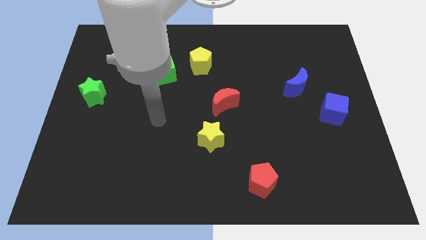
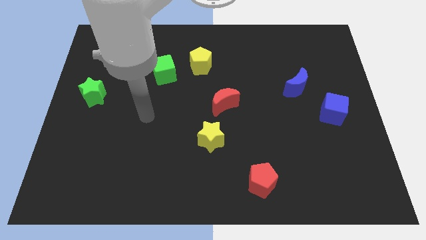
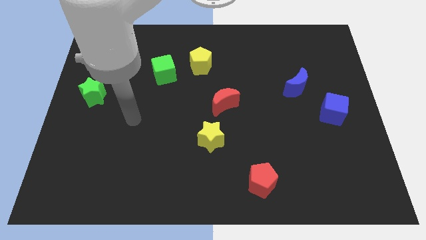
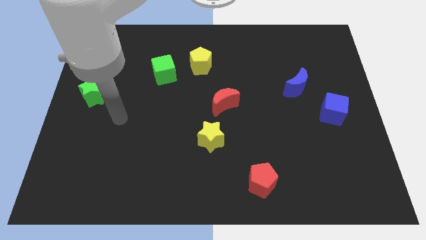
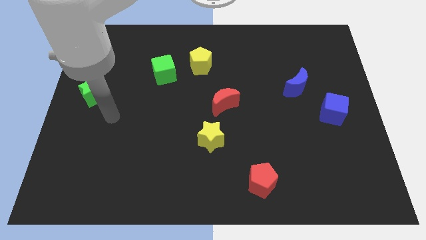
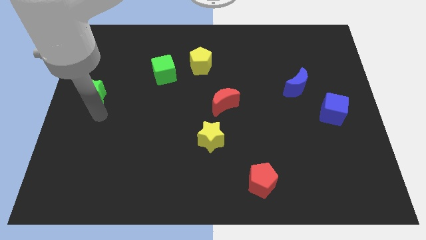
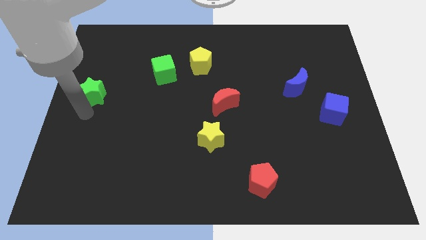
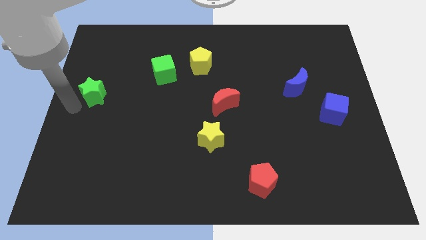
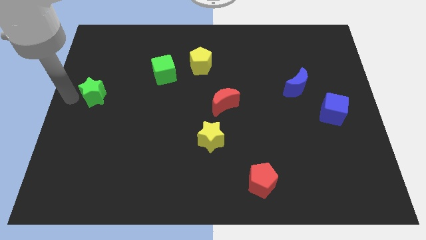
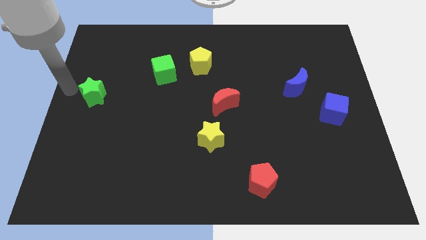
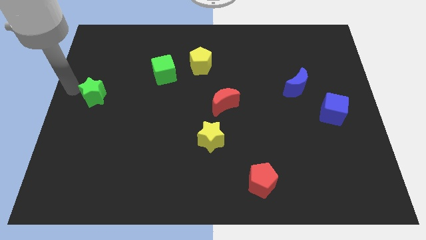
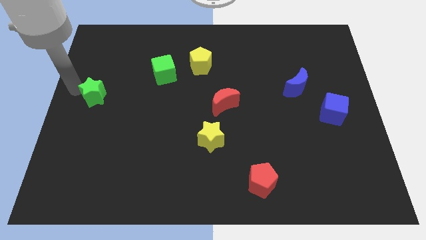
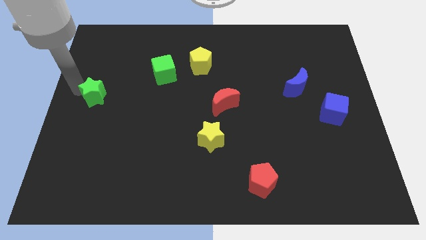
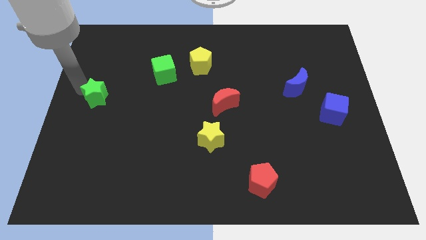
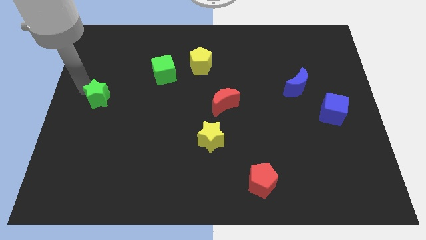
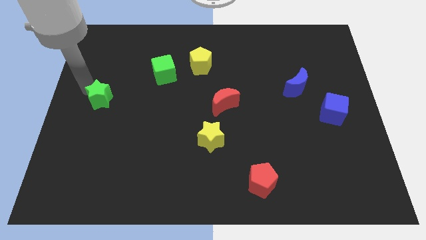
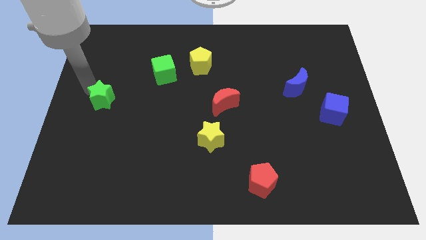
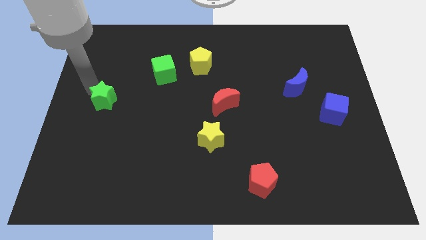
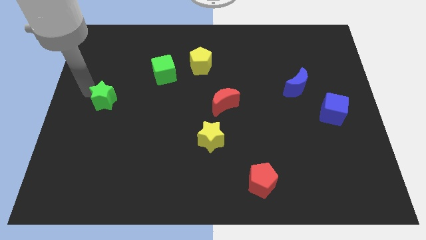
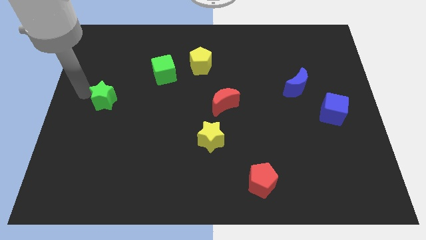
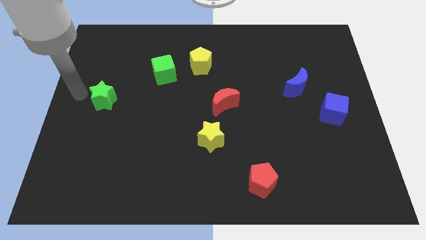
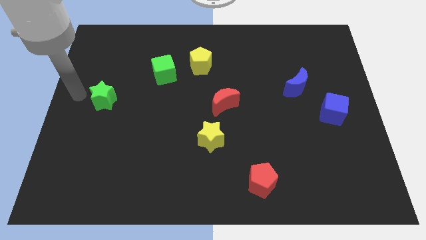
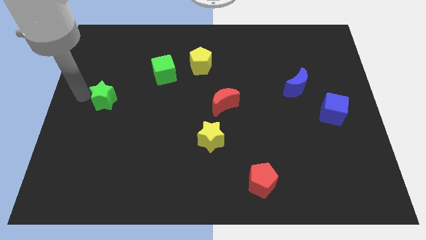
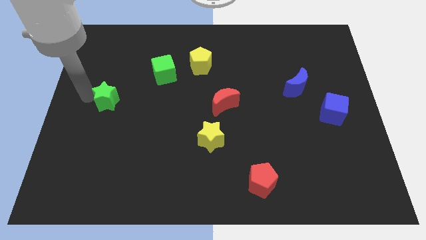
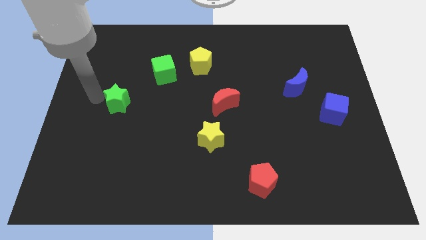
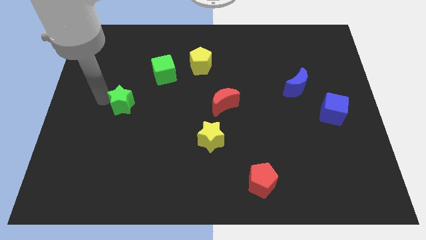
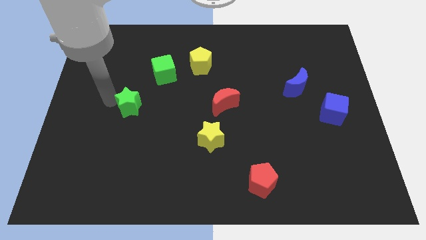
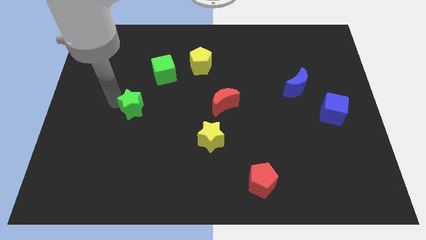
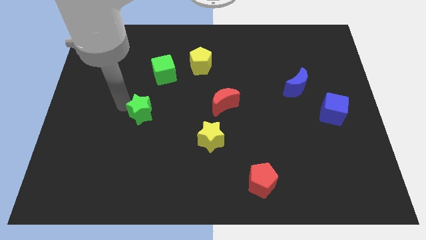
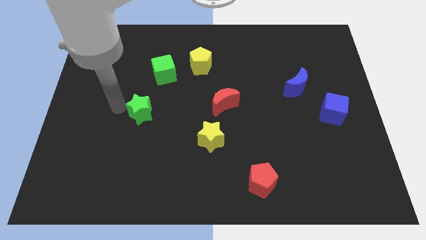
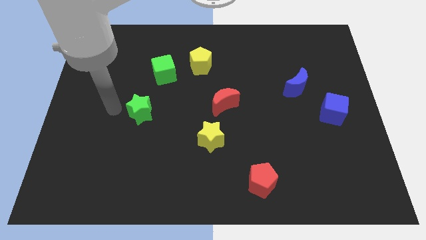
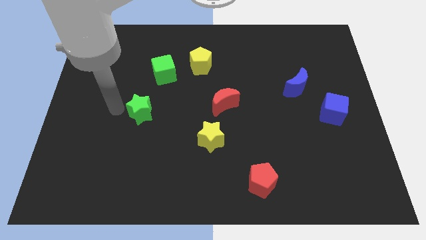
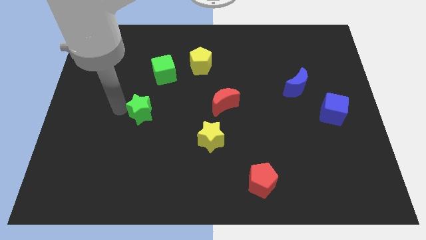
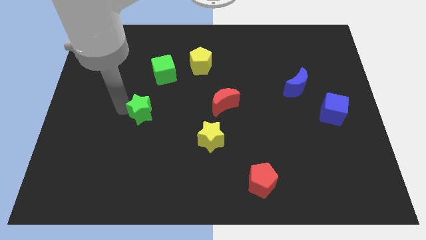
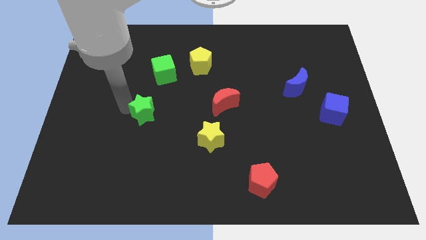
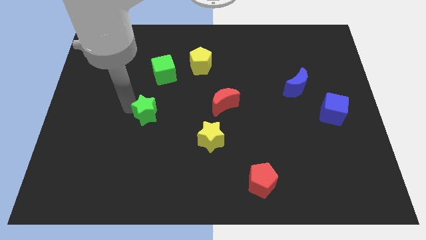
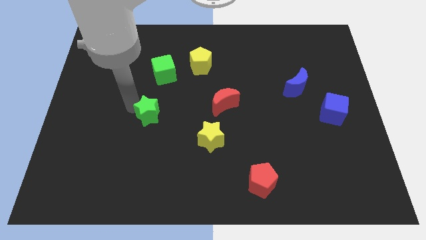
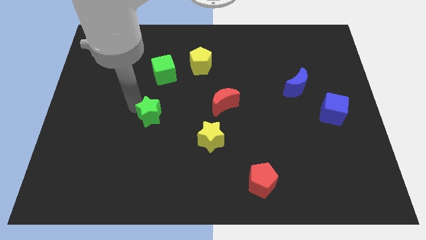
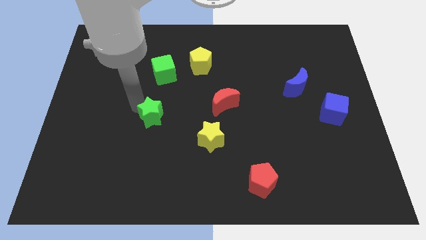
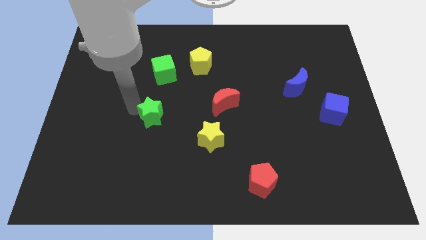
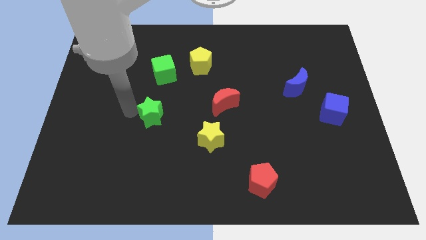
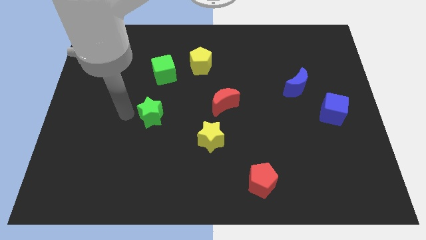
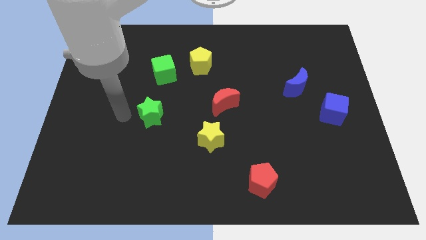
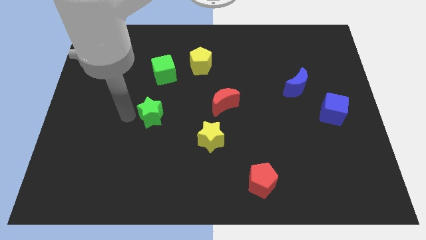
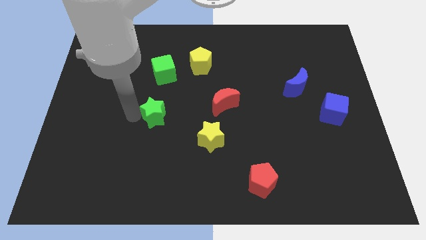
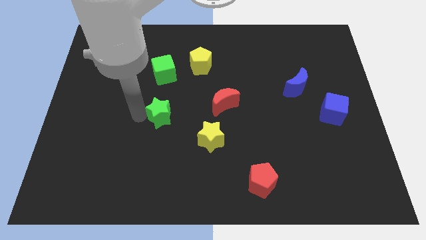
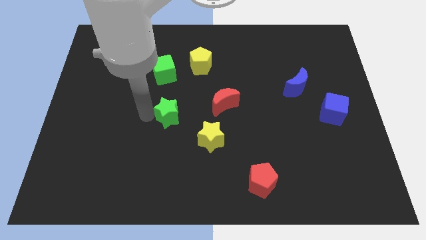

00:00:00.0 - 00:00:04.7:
put the green star diagonally up and to the left of the yellow star

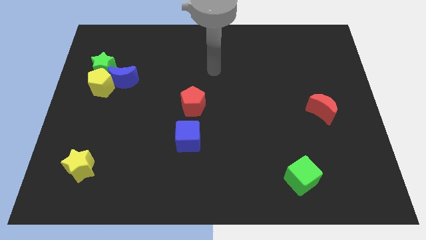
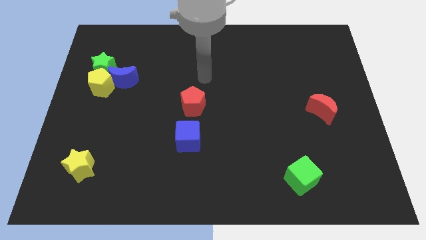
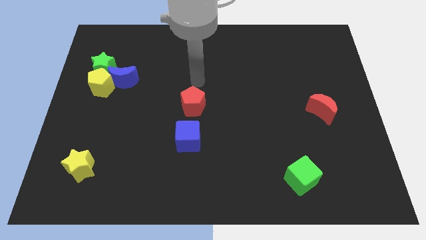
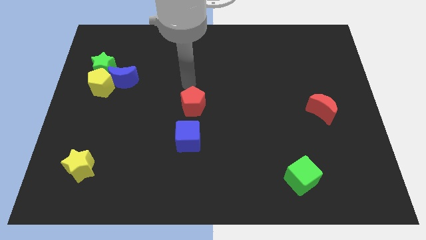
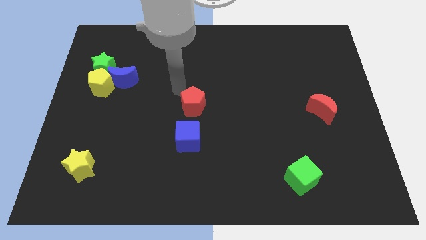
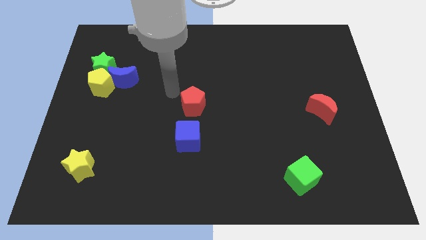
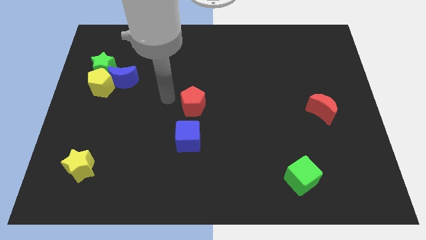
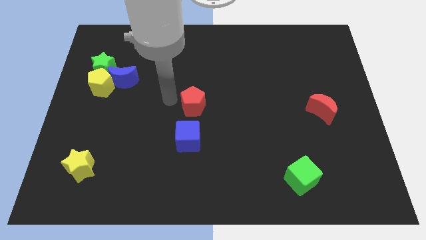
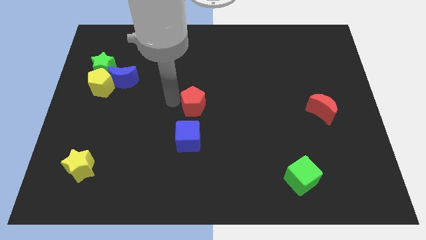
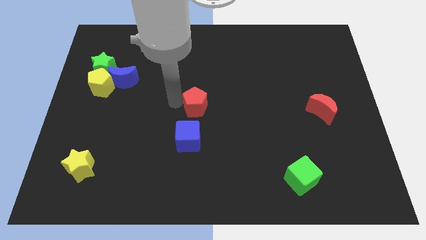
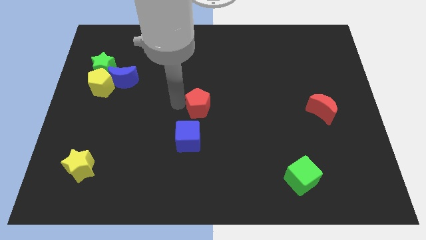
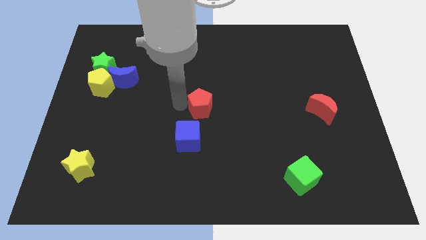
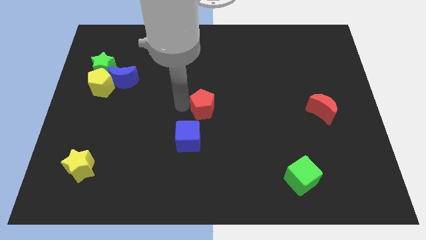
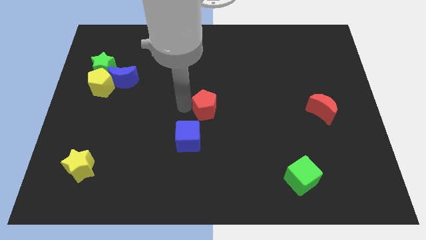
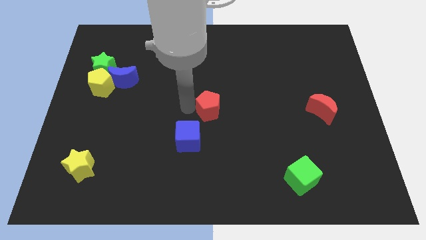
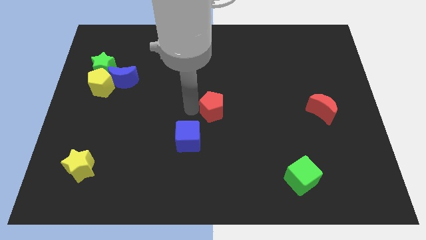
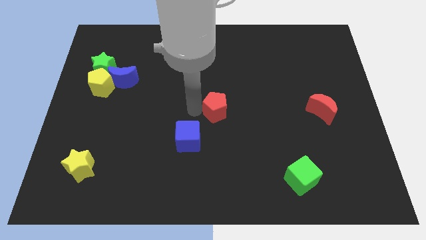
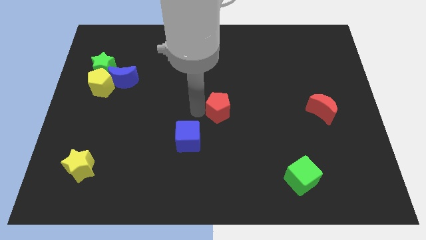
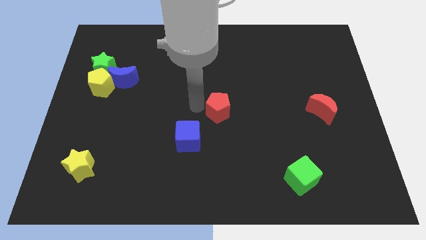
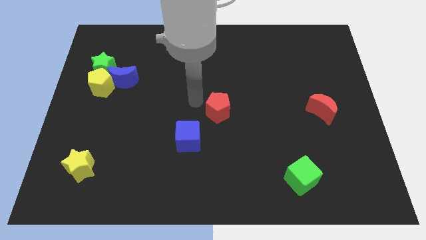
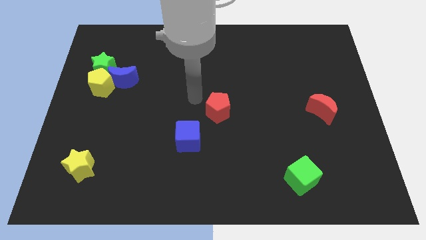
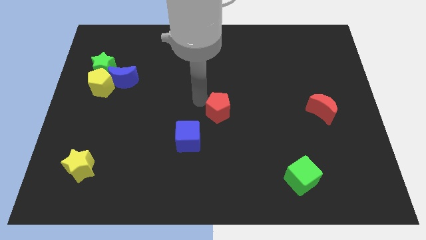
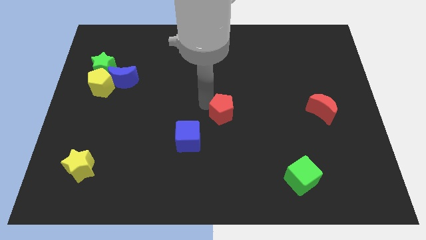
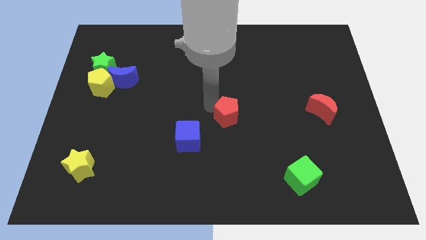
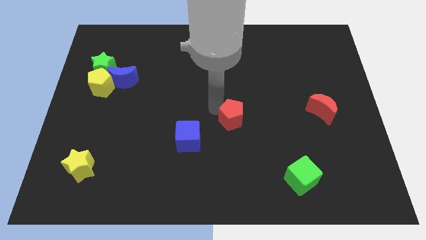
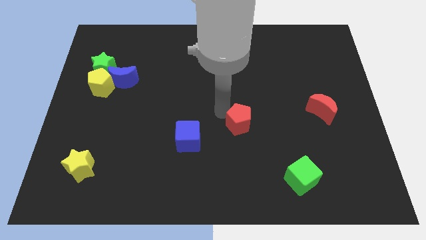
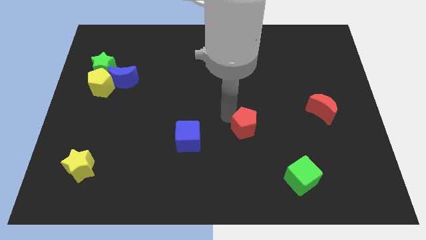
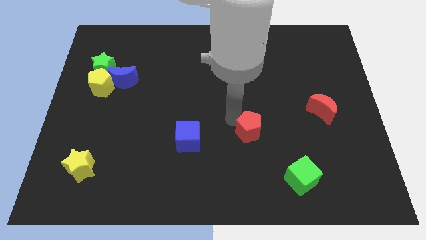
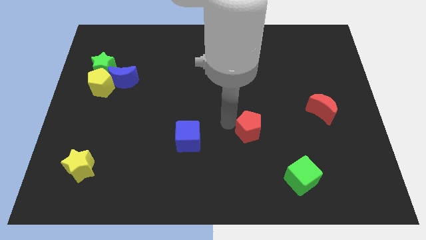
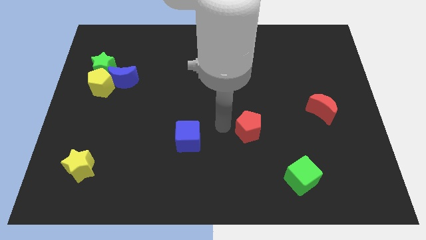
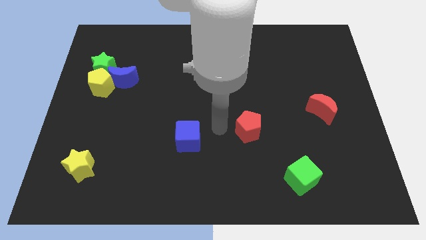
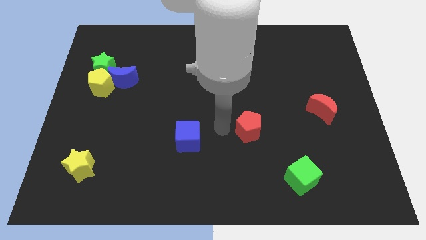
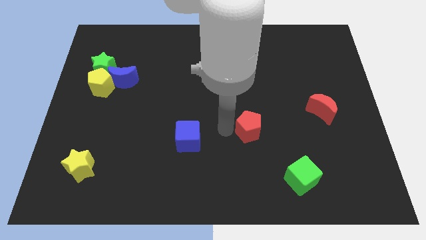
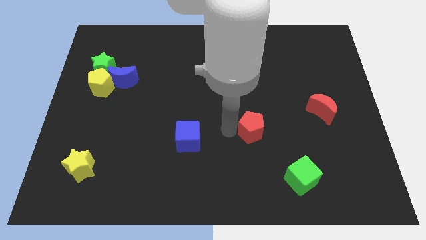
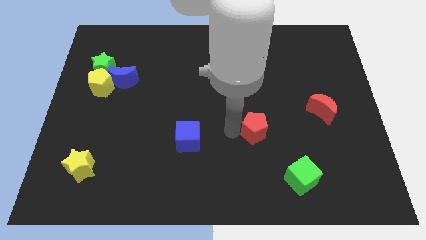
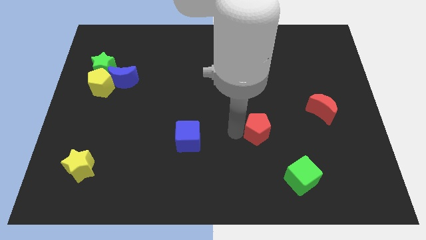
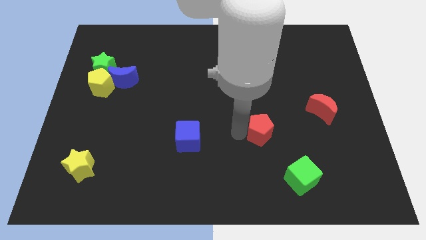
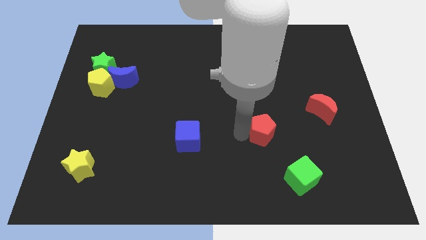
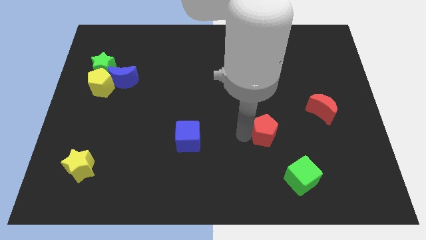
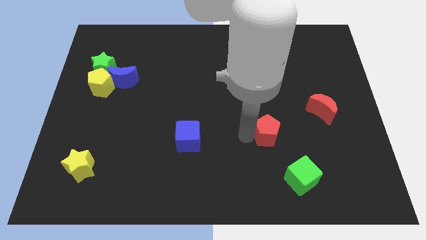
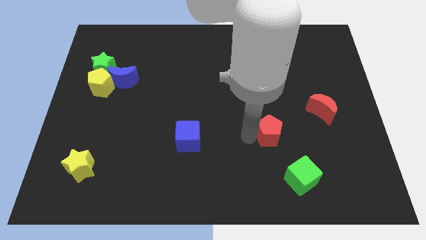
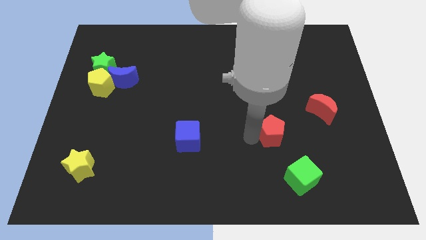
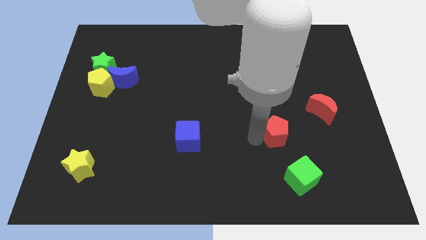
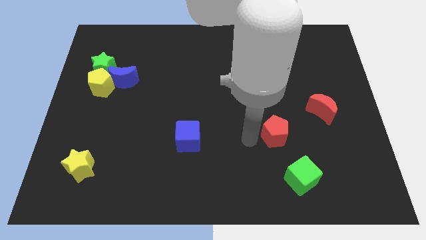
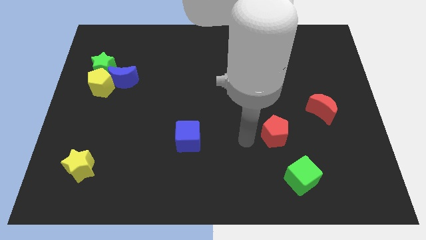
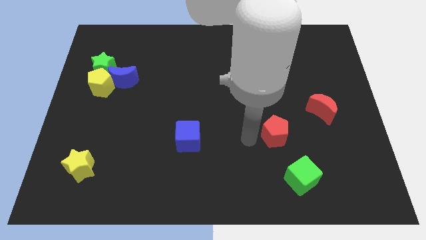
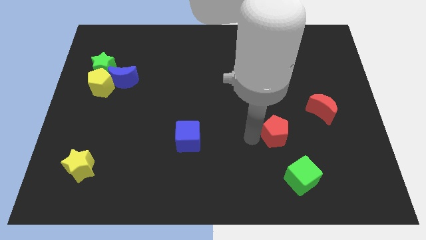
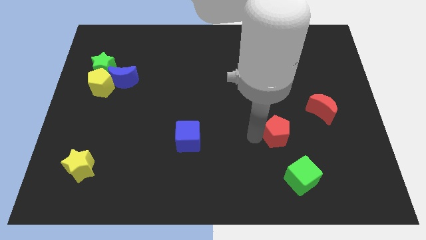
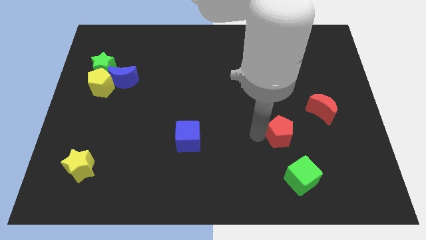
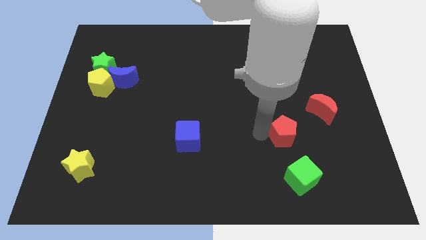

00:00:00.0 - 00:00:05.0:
move the red pentagon to the bottom left of the red moon
